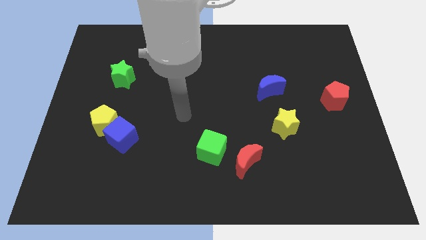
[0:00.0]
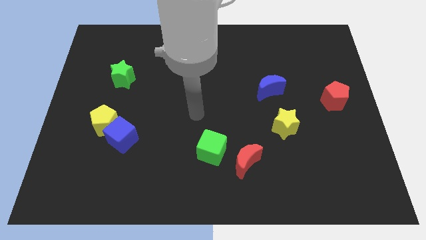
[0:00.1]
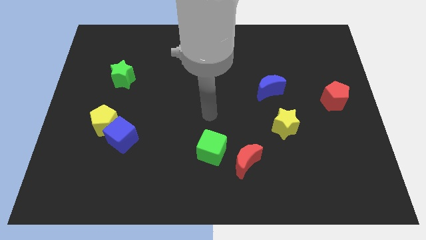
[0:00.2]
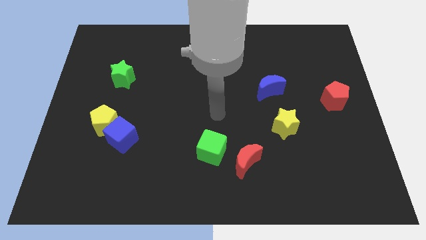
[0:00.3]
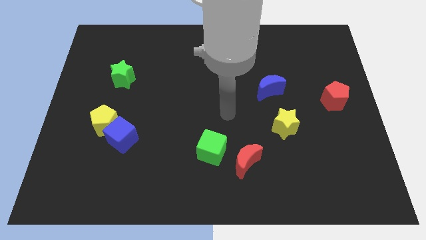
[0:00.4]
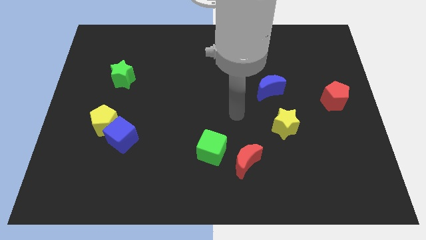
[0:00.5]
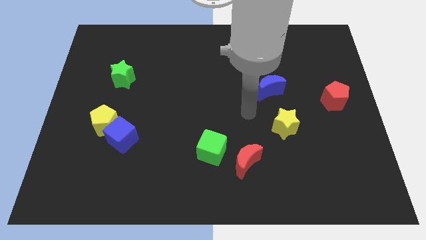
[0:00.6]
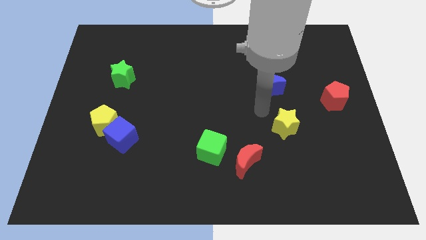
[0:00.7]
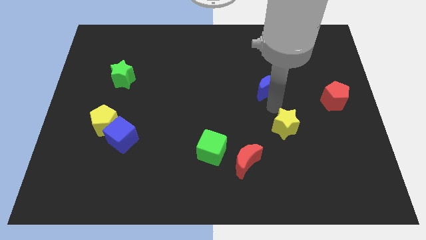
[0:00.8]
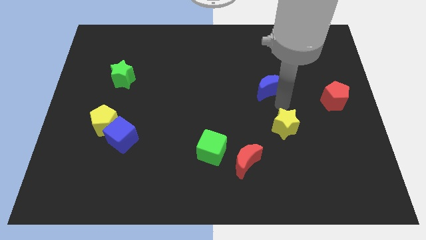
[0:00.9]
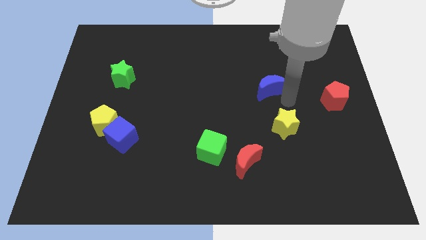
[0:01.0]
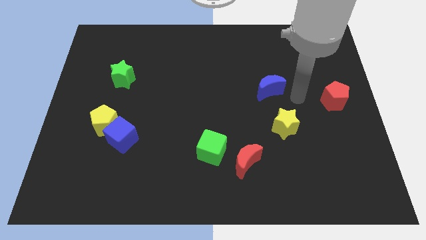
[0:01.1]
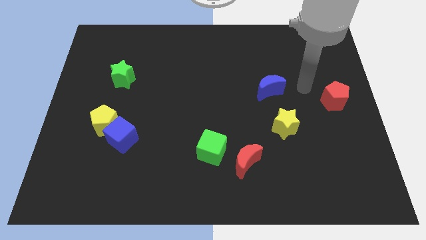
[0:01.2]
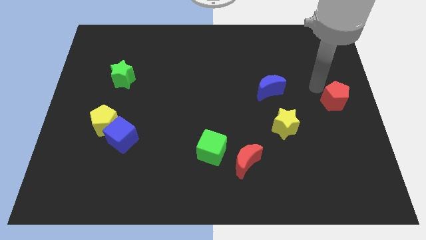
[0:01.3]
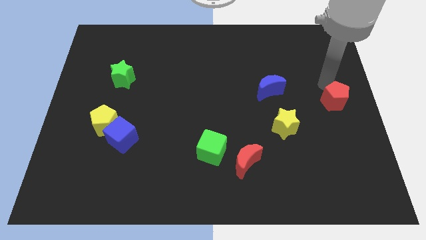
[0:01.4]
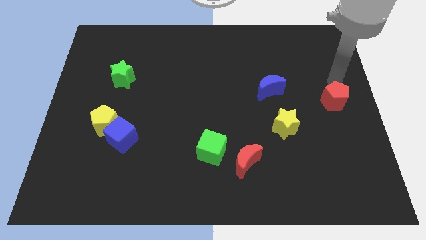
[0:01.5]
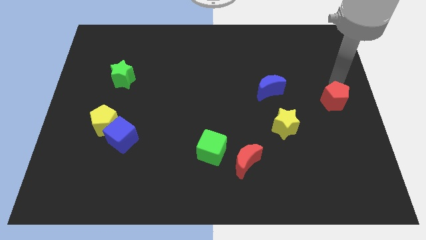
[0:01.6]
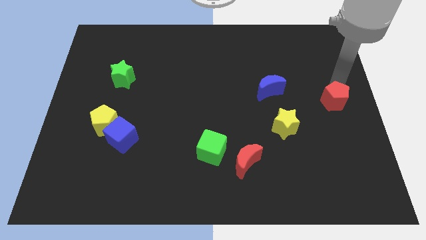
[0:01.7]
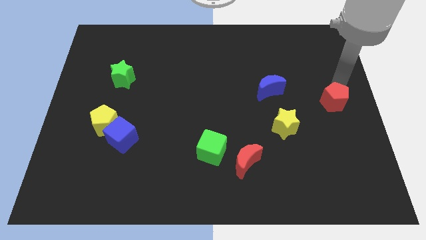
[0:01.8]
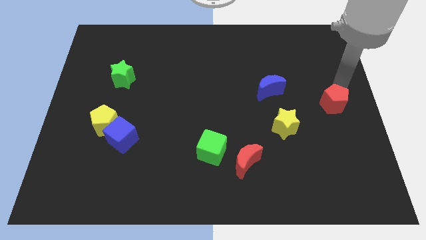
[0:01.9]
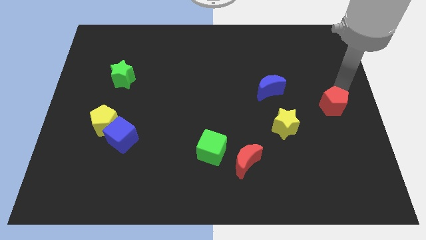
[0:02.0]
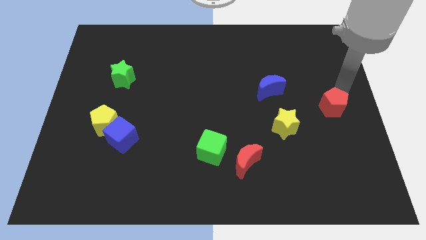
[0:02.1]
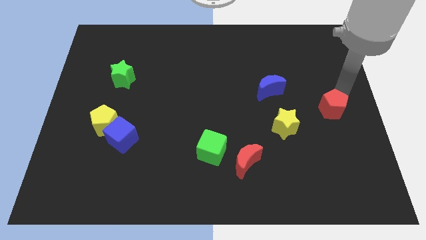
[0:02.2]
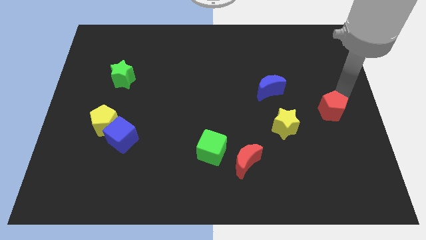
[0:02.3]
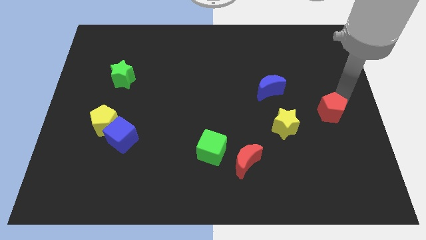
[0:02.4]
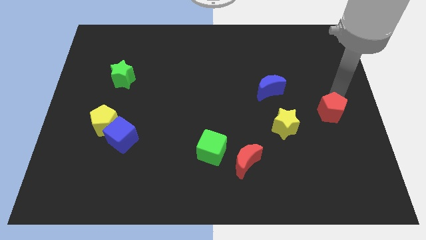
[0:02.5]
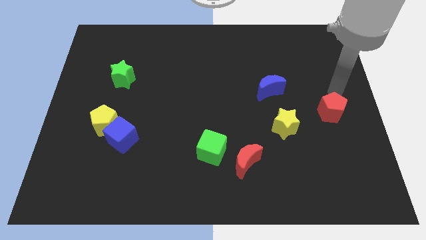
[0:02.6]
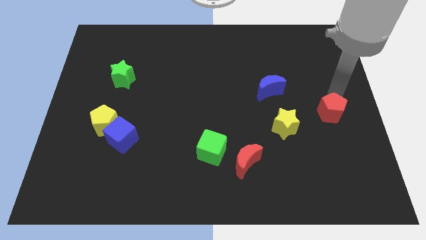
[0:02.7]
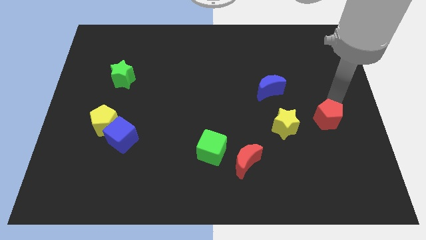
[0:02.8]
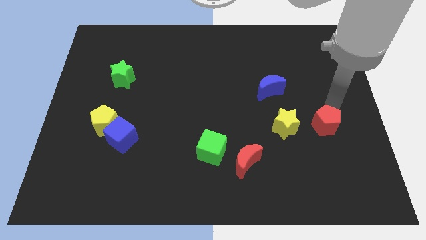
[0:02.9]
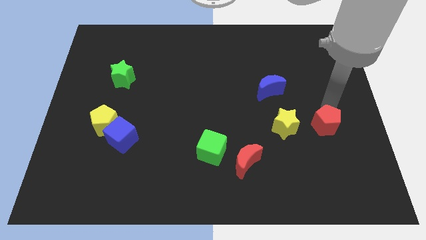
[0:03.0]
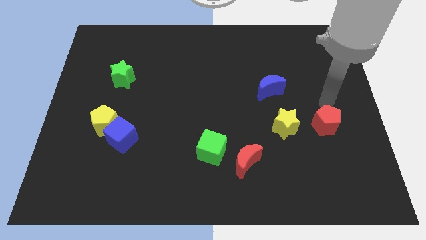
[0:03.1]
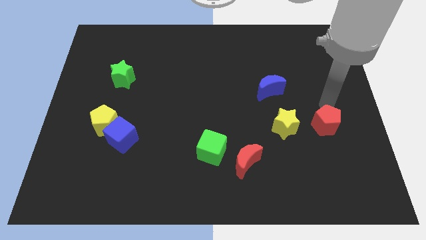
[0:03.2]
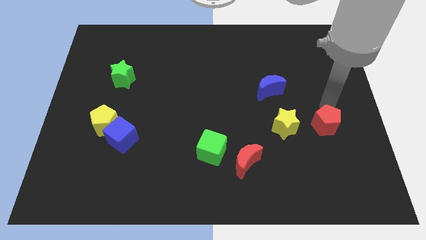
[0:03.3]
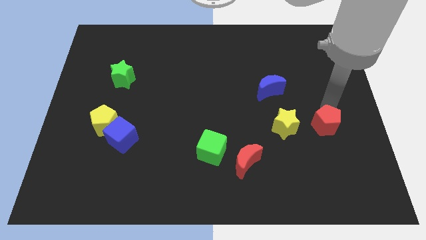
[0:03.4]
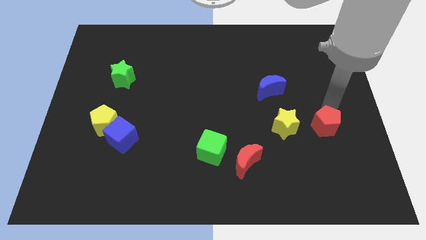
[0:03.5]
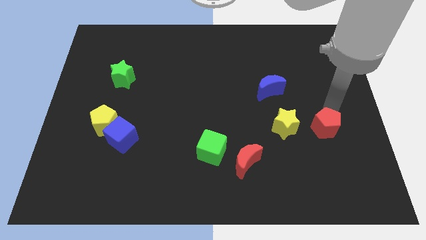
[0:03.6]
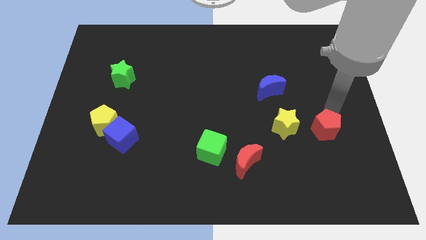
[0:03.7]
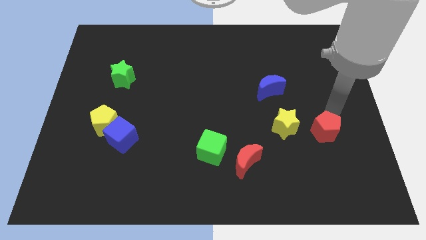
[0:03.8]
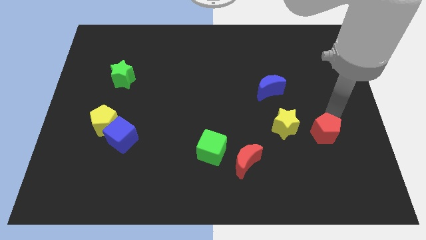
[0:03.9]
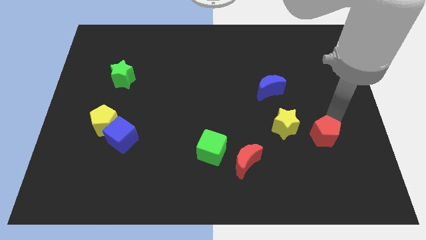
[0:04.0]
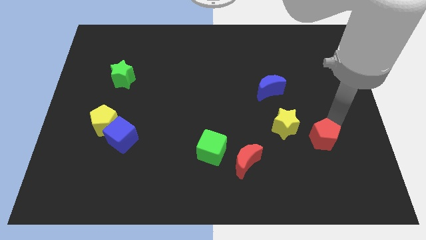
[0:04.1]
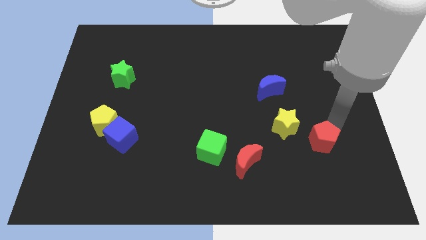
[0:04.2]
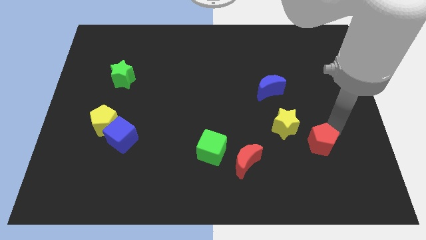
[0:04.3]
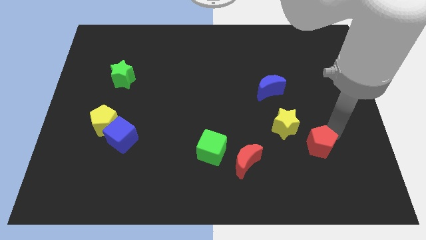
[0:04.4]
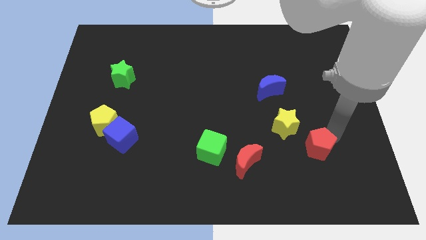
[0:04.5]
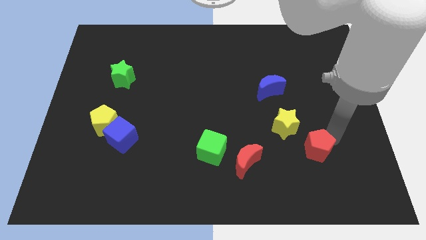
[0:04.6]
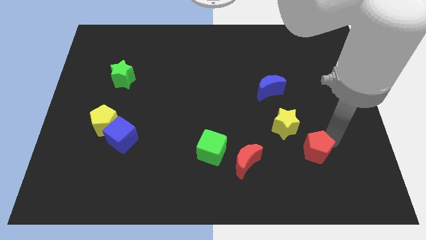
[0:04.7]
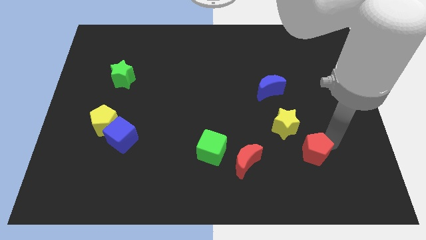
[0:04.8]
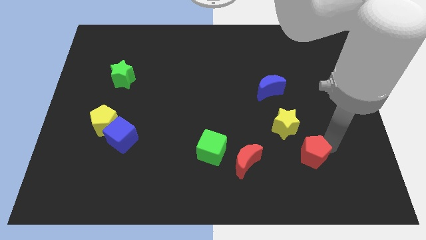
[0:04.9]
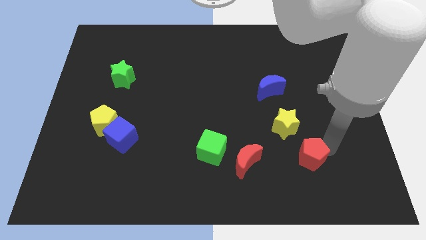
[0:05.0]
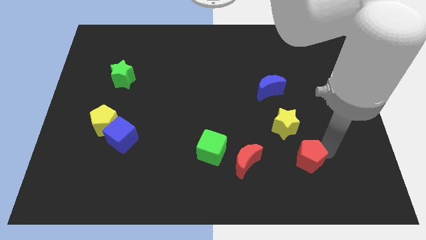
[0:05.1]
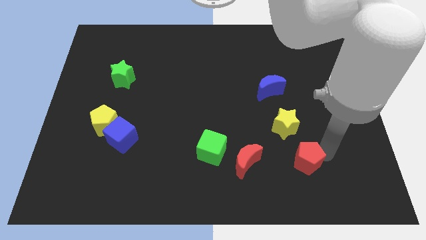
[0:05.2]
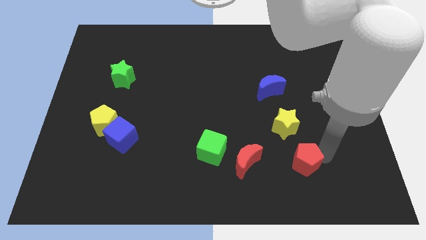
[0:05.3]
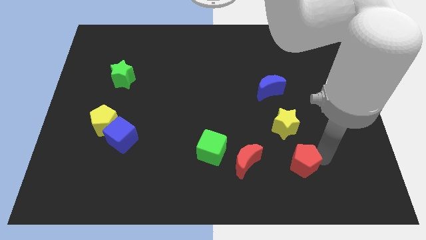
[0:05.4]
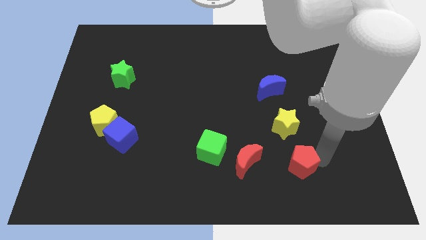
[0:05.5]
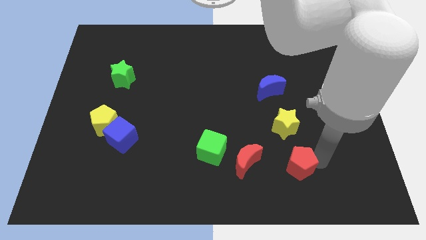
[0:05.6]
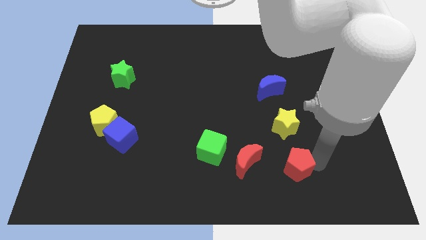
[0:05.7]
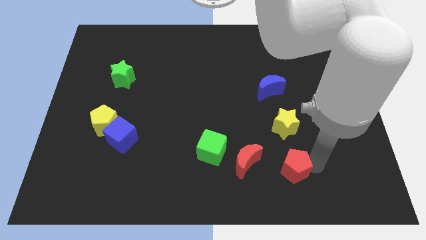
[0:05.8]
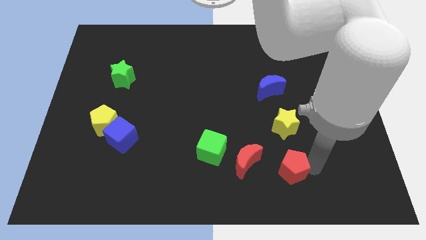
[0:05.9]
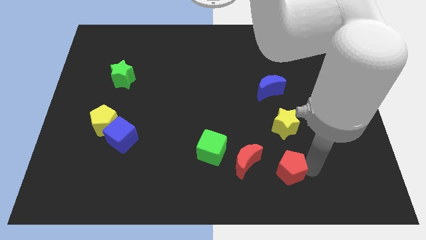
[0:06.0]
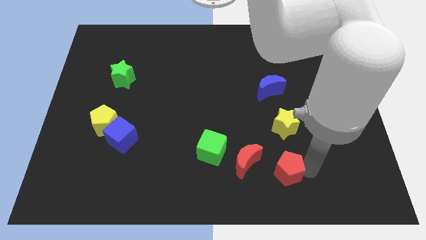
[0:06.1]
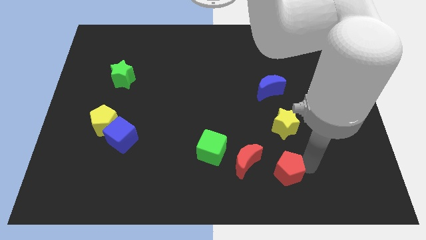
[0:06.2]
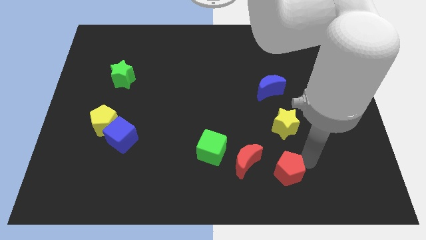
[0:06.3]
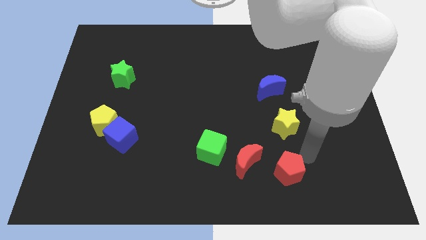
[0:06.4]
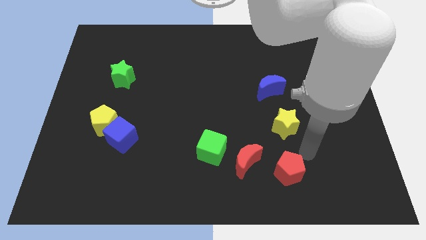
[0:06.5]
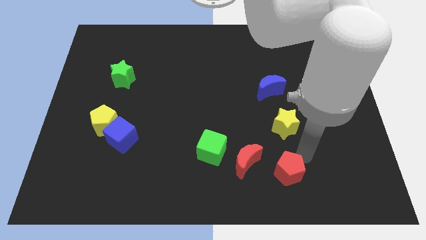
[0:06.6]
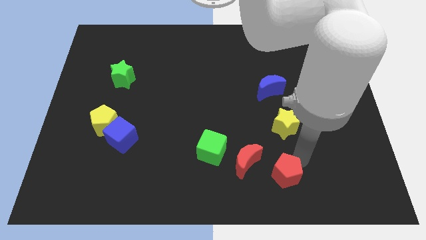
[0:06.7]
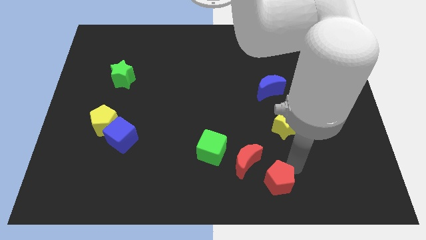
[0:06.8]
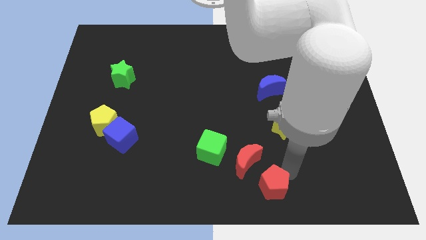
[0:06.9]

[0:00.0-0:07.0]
push the red pentagon to the bottom
